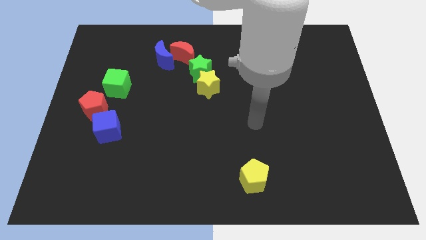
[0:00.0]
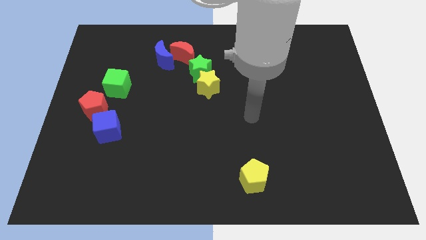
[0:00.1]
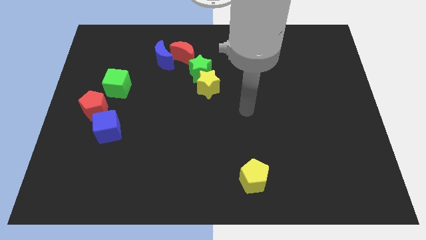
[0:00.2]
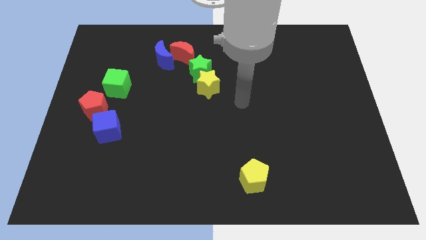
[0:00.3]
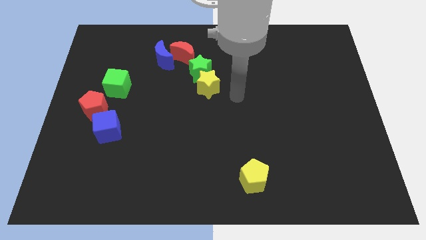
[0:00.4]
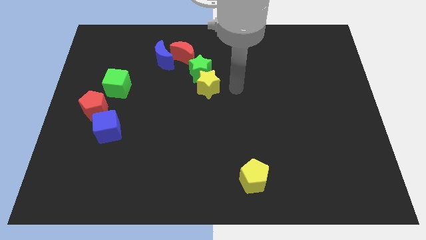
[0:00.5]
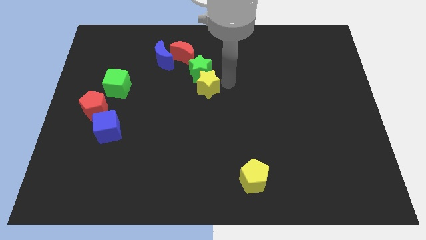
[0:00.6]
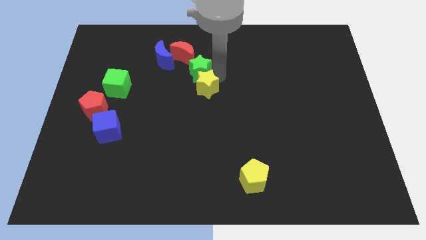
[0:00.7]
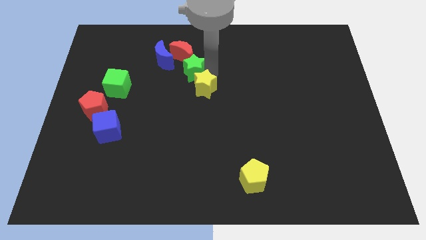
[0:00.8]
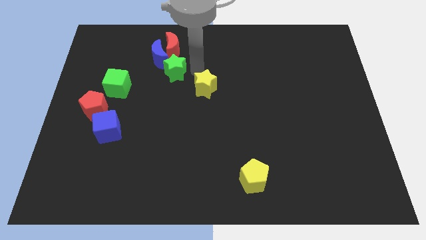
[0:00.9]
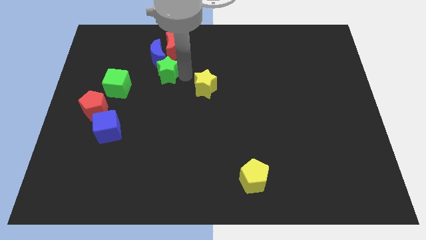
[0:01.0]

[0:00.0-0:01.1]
separate the yellow star from the green star

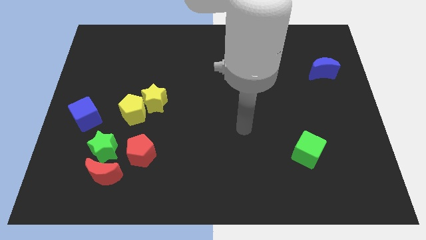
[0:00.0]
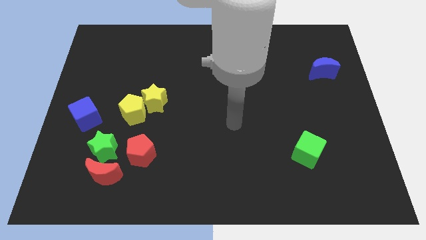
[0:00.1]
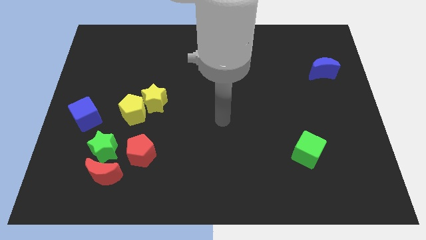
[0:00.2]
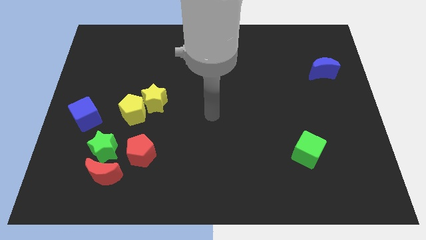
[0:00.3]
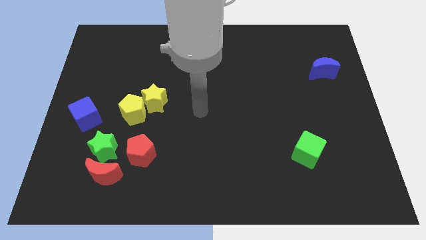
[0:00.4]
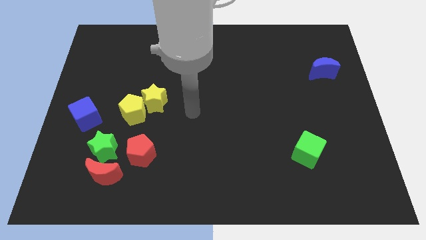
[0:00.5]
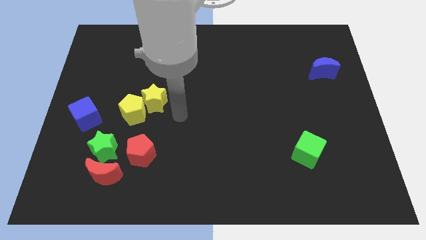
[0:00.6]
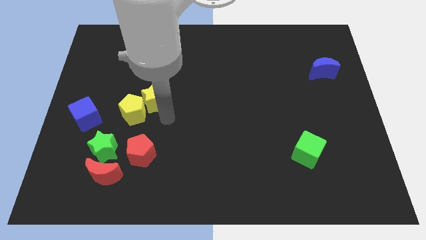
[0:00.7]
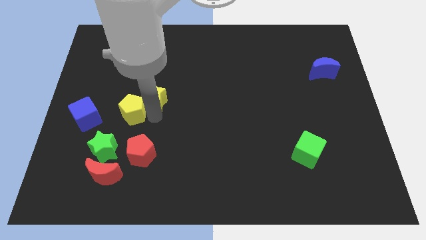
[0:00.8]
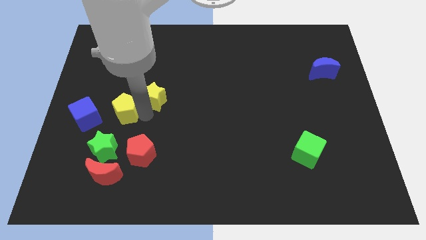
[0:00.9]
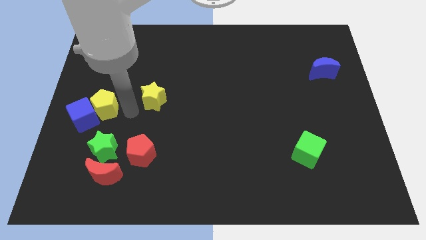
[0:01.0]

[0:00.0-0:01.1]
move the yellow star away from the yellow pentagon

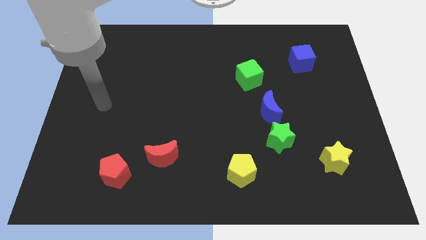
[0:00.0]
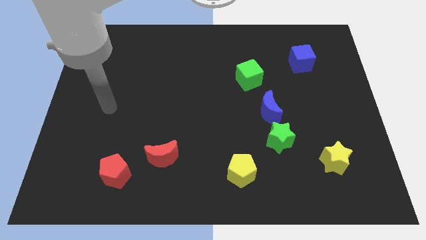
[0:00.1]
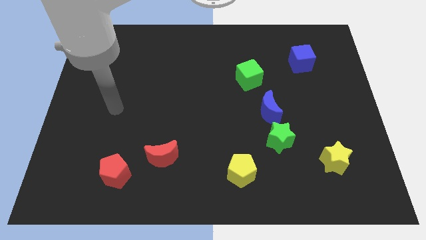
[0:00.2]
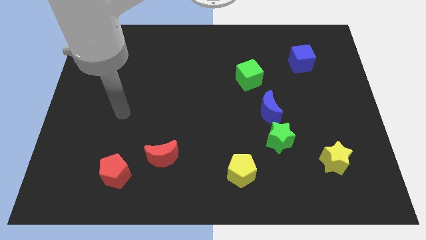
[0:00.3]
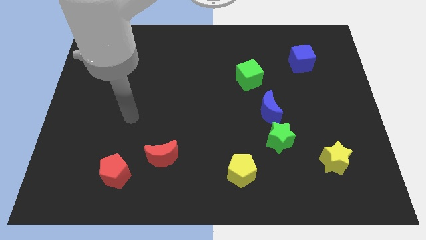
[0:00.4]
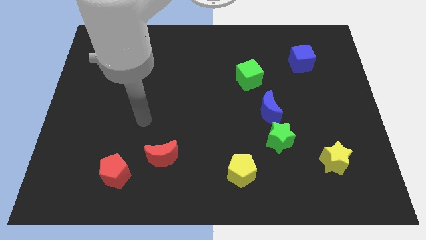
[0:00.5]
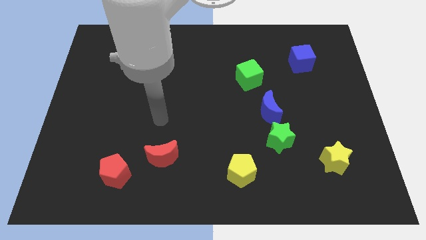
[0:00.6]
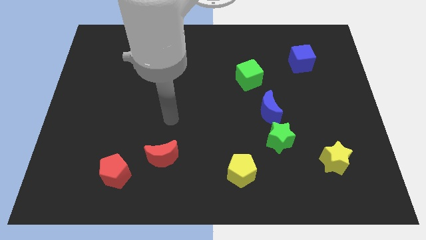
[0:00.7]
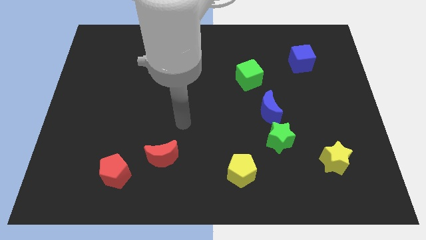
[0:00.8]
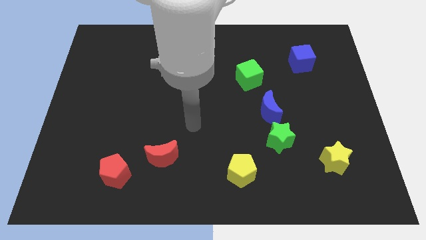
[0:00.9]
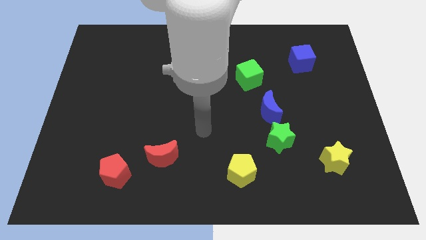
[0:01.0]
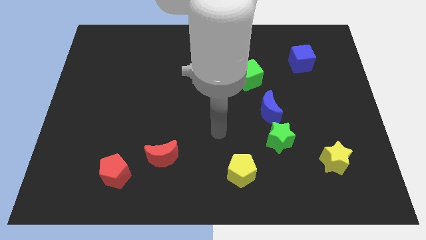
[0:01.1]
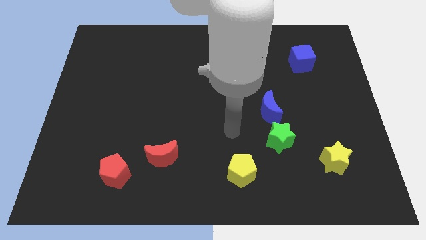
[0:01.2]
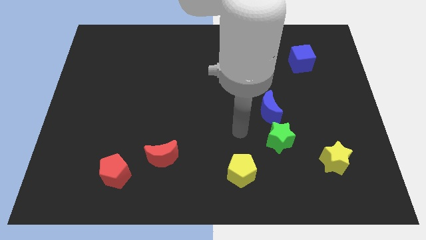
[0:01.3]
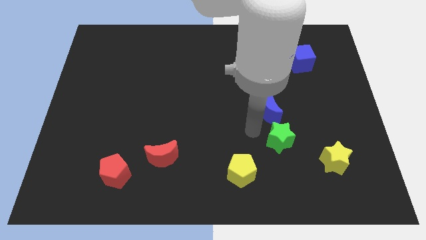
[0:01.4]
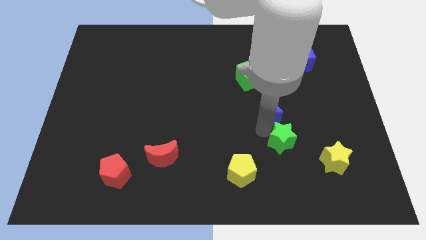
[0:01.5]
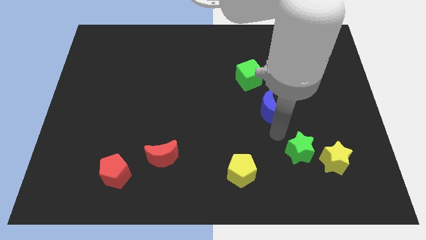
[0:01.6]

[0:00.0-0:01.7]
pull the blue moon apart from the green star

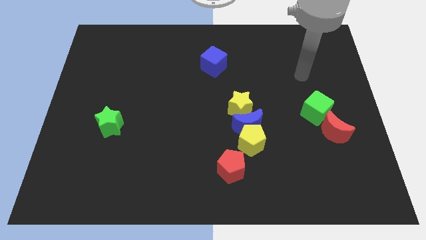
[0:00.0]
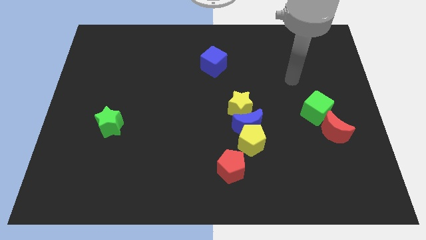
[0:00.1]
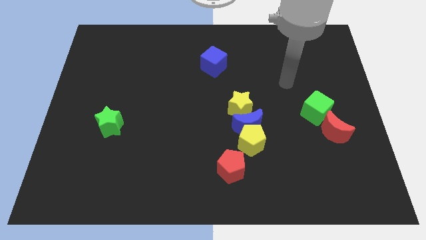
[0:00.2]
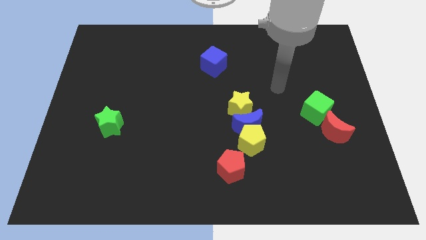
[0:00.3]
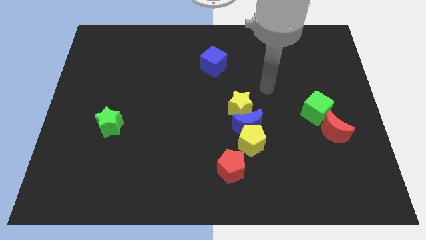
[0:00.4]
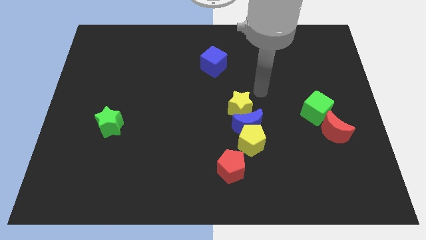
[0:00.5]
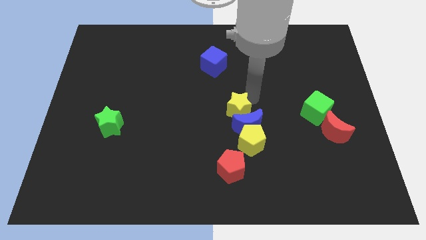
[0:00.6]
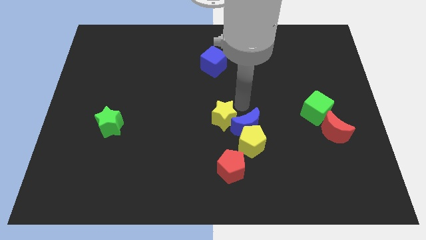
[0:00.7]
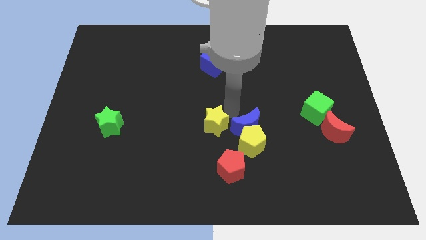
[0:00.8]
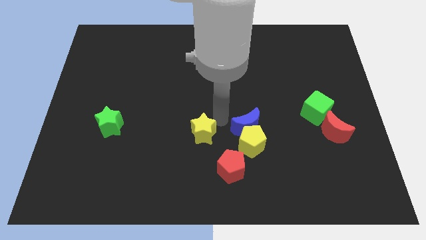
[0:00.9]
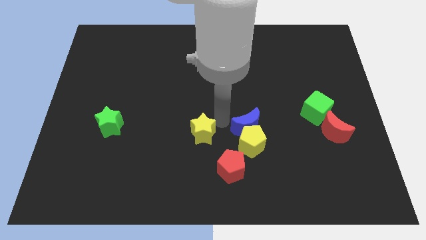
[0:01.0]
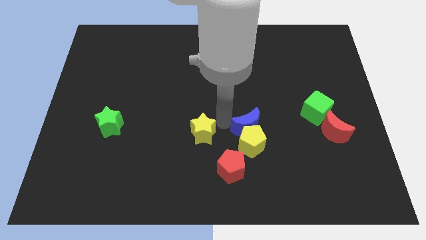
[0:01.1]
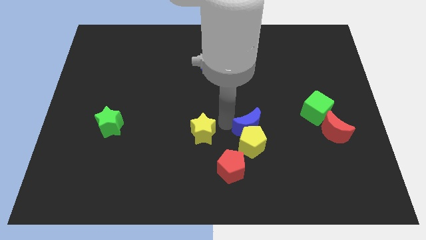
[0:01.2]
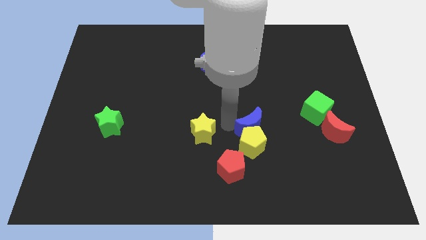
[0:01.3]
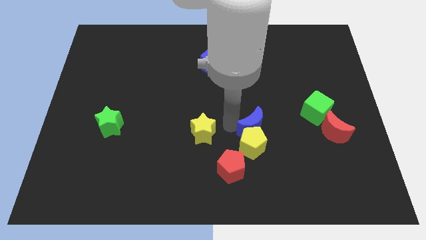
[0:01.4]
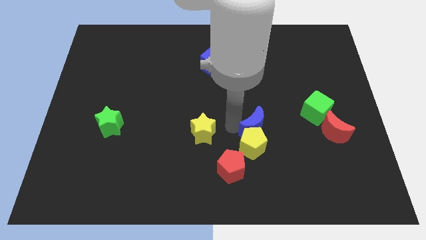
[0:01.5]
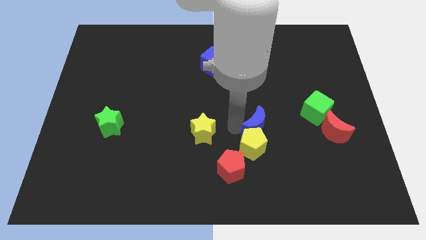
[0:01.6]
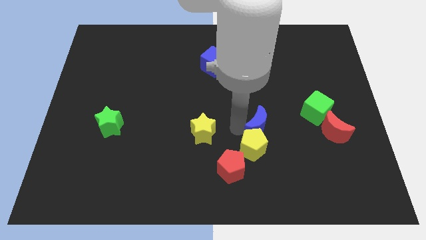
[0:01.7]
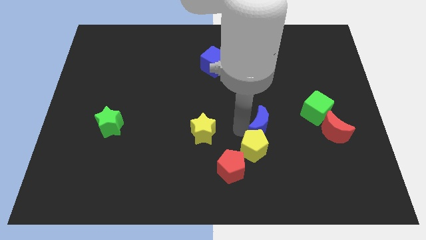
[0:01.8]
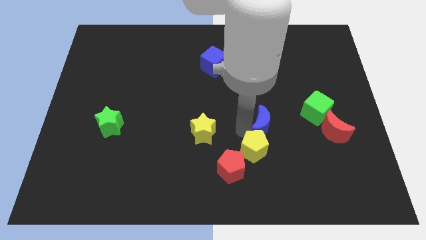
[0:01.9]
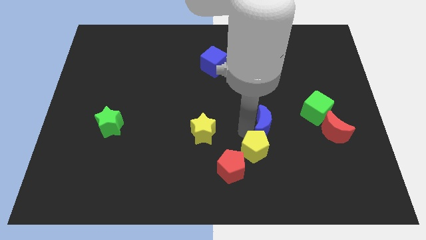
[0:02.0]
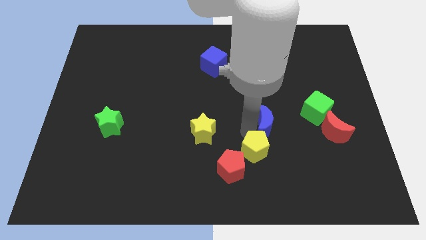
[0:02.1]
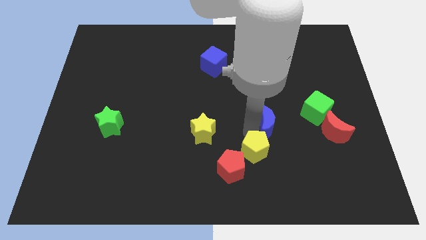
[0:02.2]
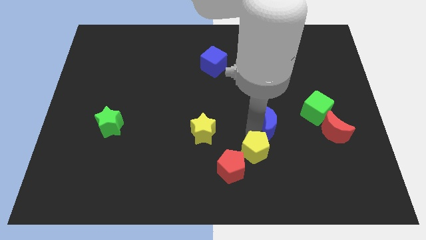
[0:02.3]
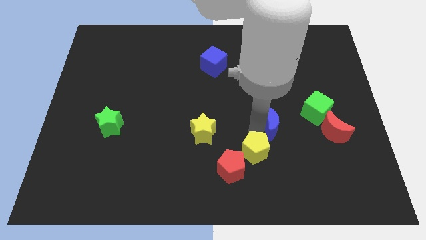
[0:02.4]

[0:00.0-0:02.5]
move the blue moon away from the yellow pentagon and yellow star

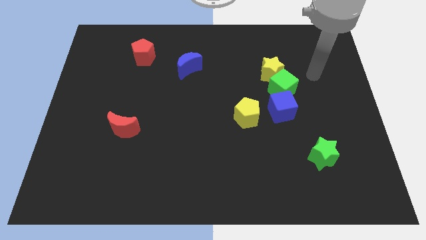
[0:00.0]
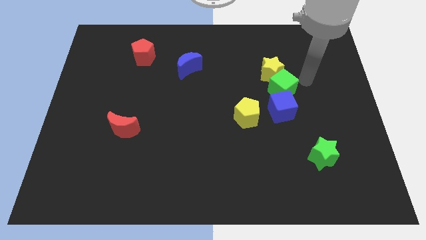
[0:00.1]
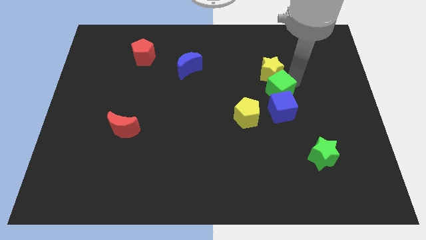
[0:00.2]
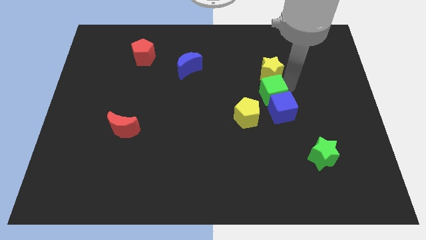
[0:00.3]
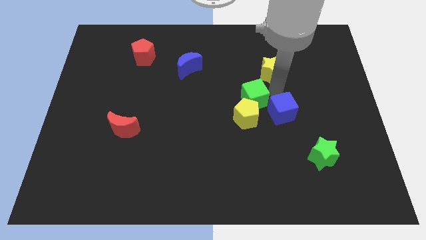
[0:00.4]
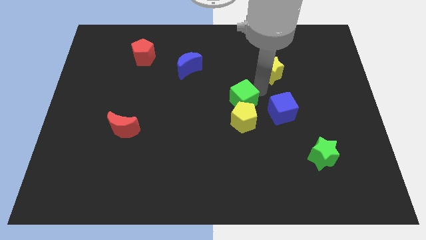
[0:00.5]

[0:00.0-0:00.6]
pull the yellow star apart from the green cube

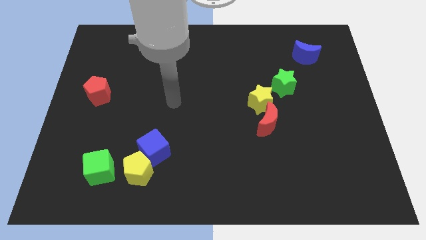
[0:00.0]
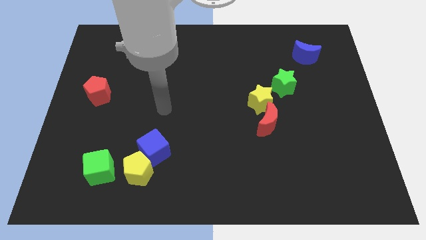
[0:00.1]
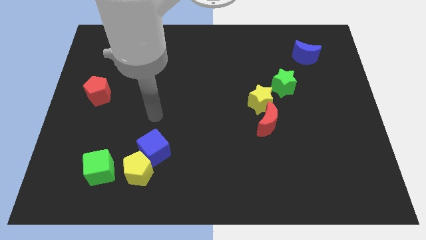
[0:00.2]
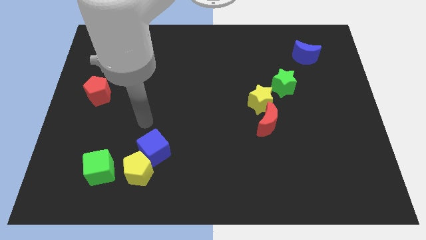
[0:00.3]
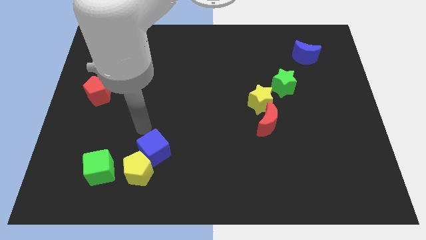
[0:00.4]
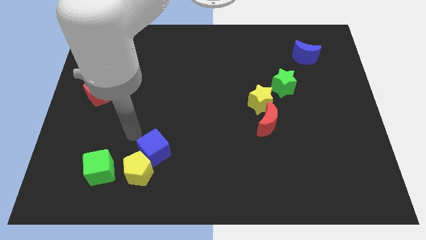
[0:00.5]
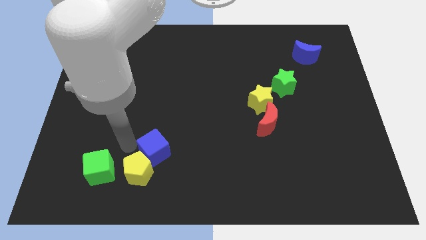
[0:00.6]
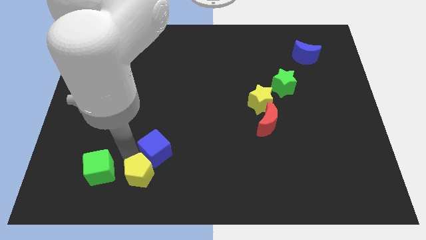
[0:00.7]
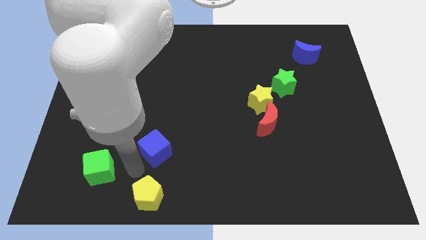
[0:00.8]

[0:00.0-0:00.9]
move the blue cube away from the yellow pentagon

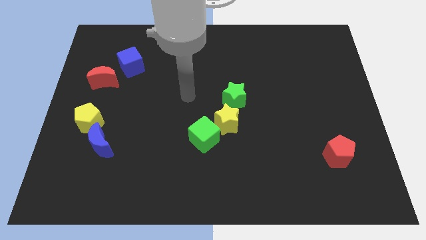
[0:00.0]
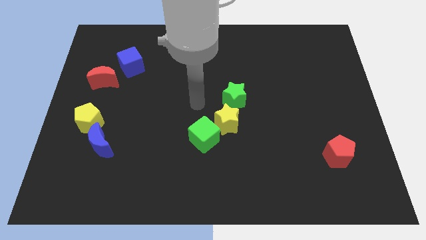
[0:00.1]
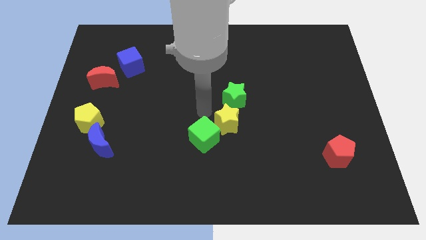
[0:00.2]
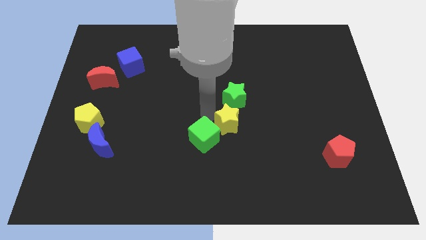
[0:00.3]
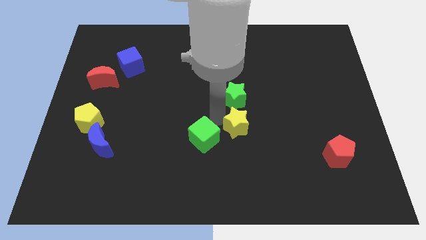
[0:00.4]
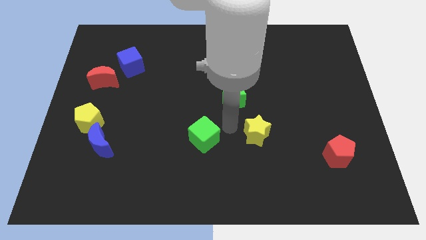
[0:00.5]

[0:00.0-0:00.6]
move the green cube away from the yellow star

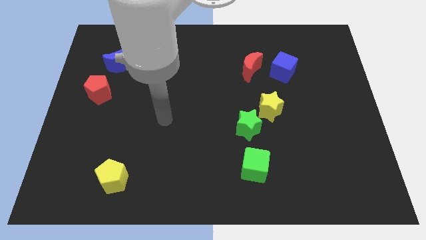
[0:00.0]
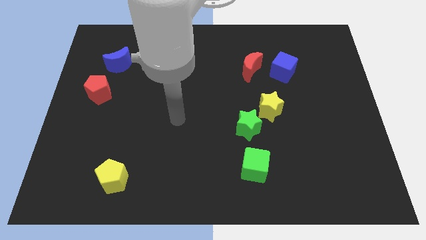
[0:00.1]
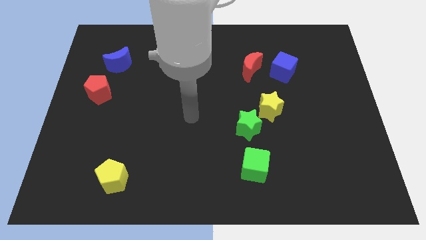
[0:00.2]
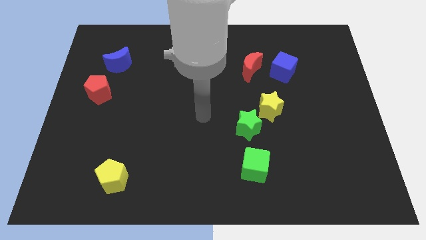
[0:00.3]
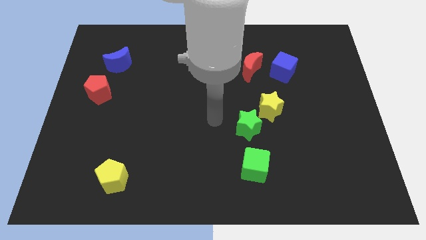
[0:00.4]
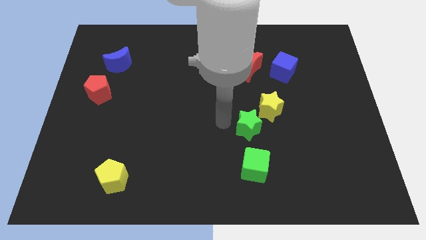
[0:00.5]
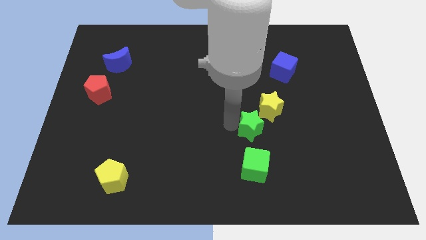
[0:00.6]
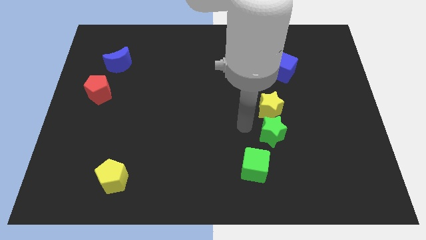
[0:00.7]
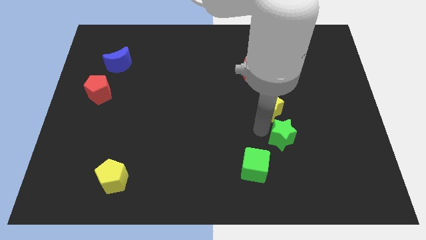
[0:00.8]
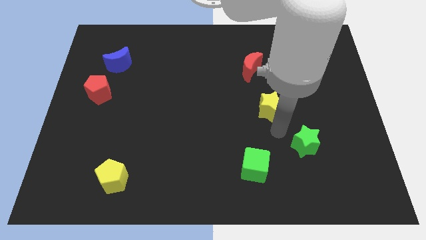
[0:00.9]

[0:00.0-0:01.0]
move the yellow star away from the green star
